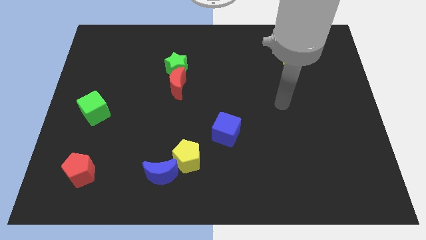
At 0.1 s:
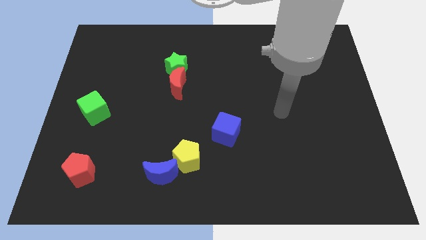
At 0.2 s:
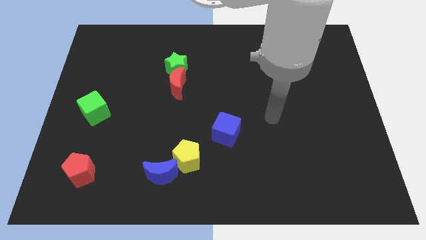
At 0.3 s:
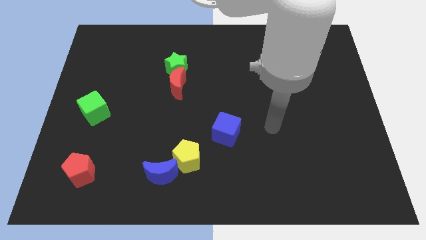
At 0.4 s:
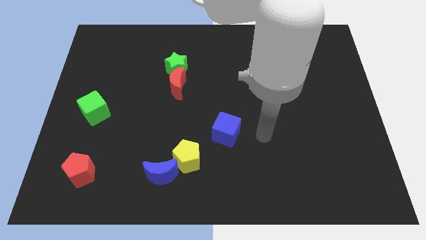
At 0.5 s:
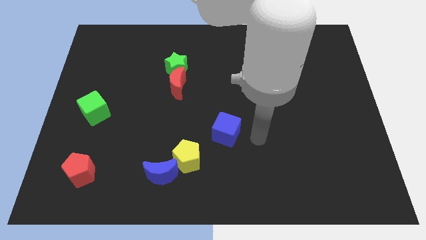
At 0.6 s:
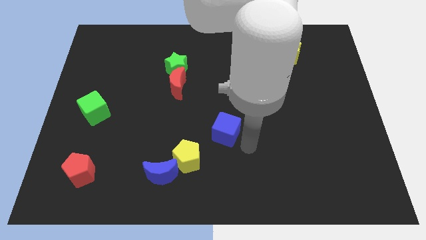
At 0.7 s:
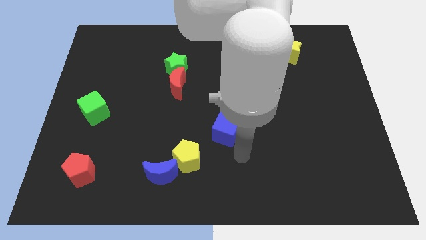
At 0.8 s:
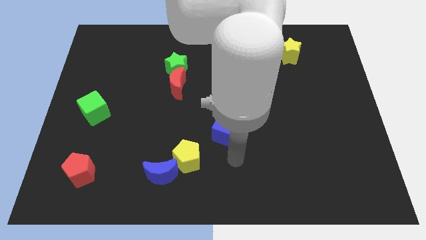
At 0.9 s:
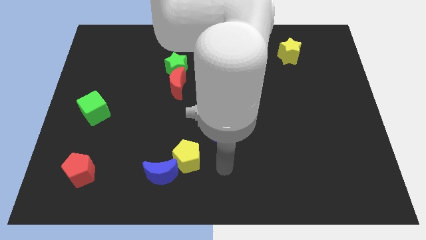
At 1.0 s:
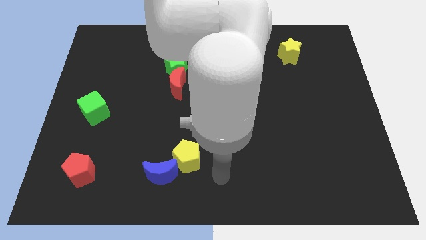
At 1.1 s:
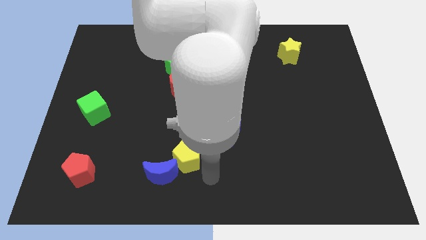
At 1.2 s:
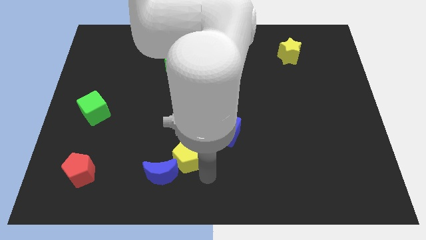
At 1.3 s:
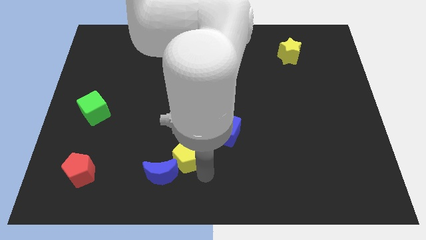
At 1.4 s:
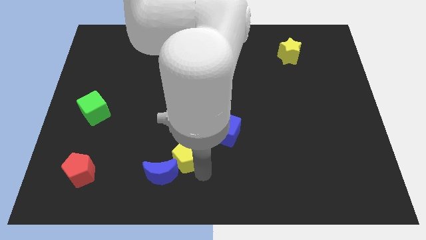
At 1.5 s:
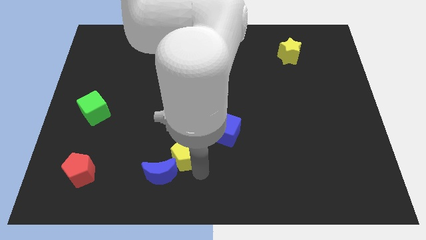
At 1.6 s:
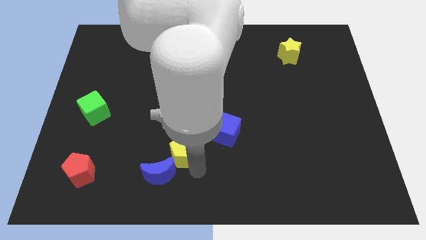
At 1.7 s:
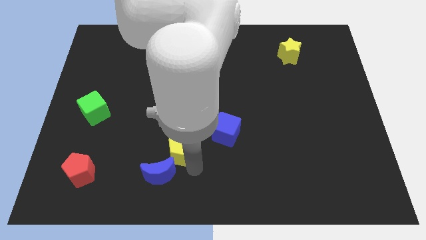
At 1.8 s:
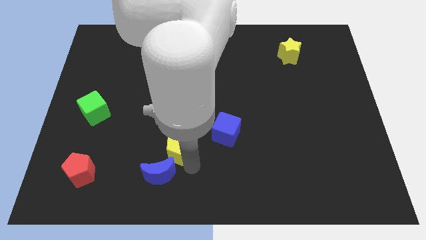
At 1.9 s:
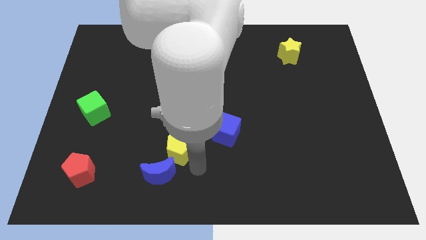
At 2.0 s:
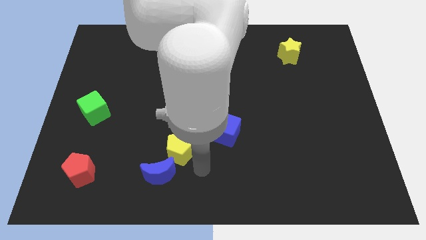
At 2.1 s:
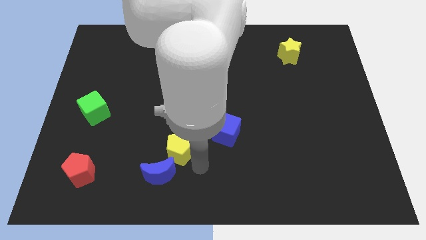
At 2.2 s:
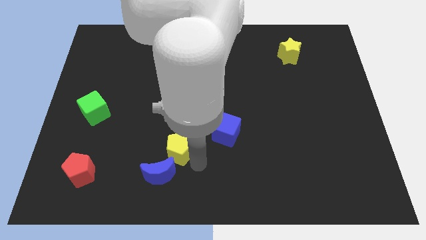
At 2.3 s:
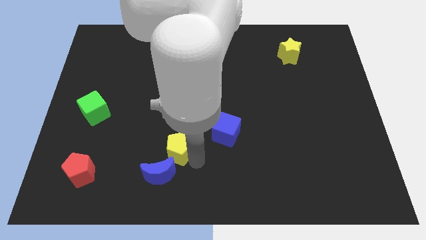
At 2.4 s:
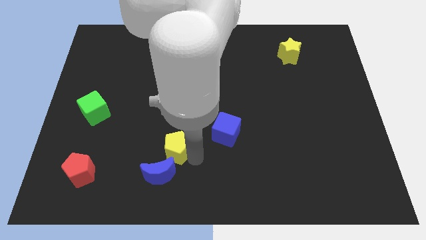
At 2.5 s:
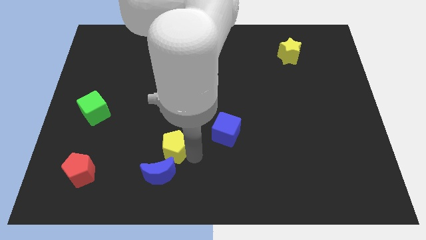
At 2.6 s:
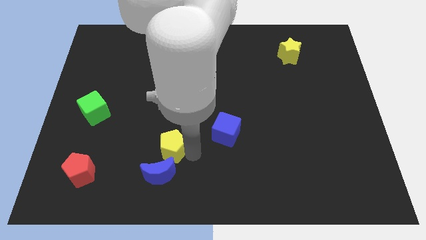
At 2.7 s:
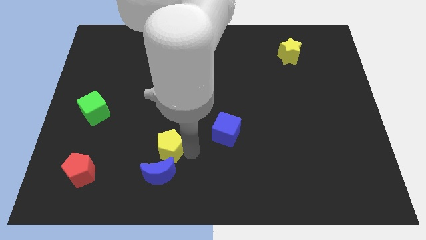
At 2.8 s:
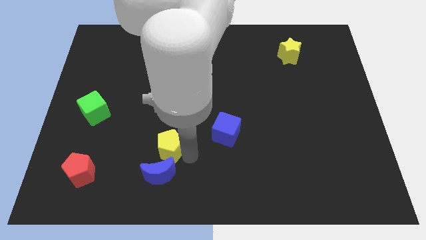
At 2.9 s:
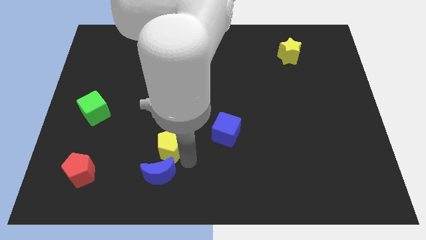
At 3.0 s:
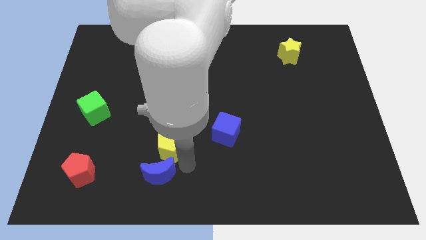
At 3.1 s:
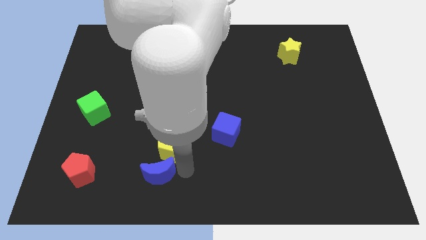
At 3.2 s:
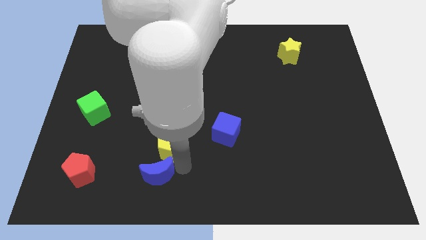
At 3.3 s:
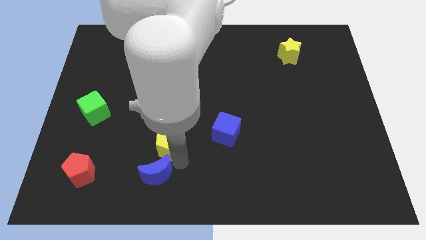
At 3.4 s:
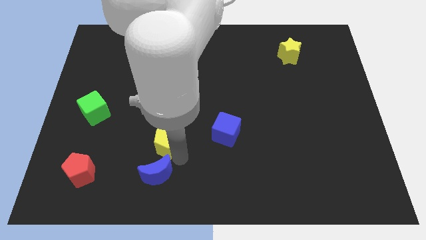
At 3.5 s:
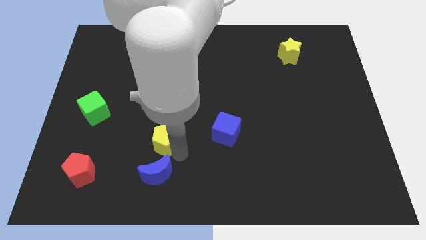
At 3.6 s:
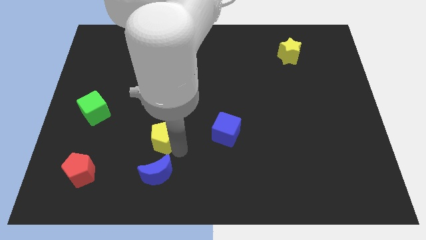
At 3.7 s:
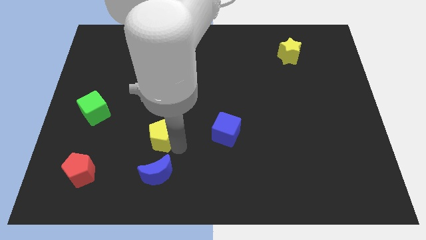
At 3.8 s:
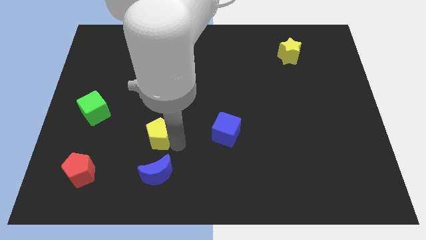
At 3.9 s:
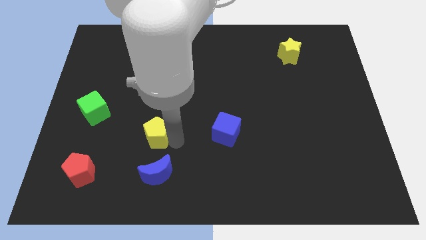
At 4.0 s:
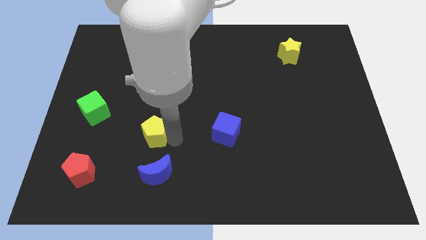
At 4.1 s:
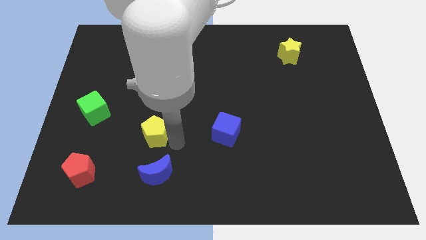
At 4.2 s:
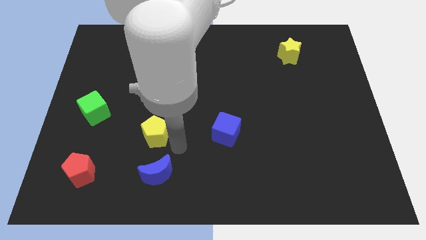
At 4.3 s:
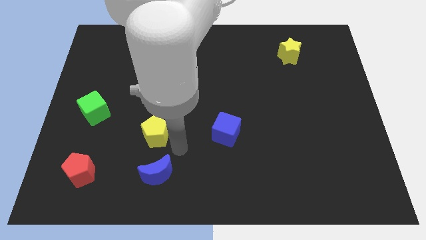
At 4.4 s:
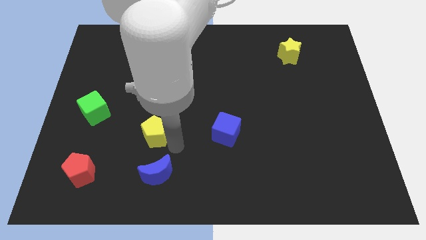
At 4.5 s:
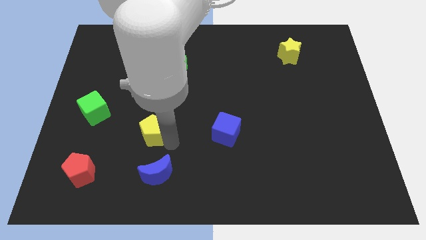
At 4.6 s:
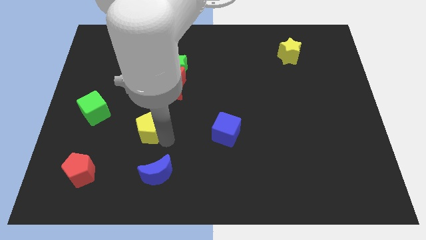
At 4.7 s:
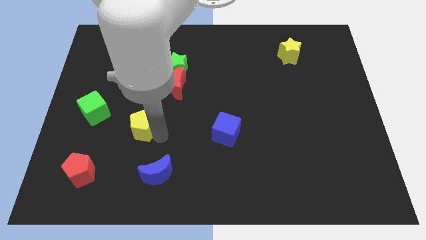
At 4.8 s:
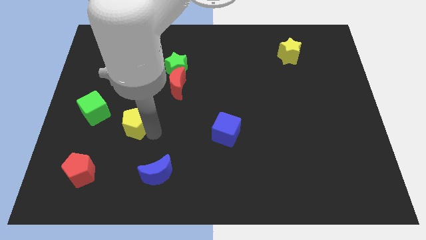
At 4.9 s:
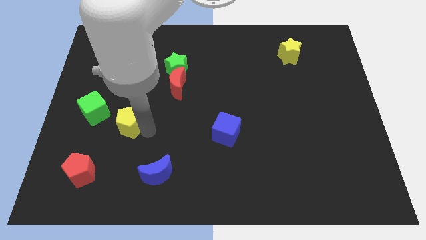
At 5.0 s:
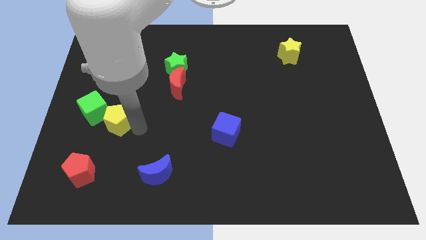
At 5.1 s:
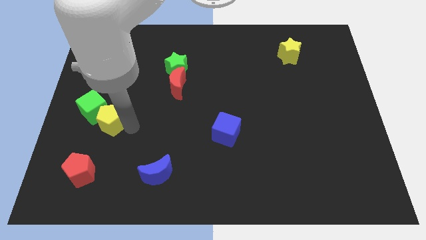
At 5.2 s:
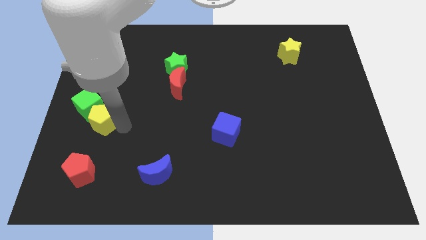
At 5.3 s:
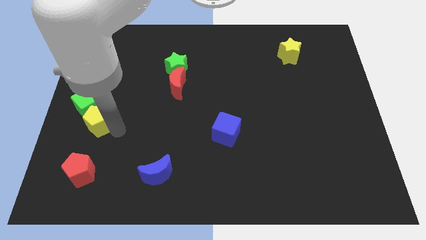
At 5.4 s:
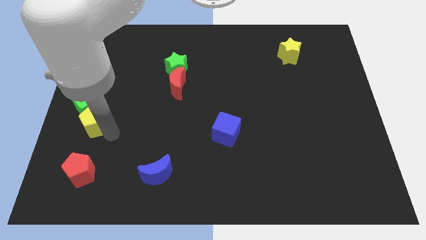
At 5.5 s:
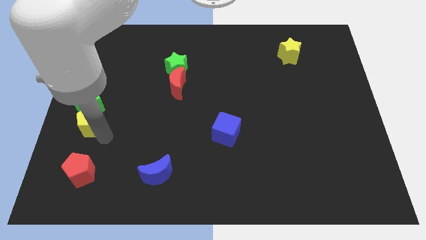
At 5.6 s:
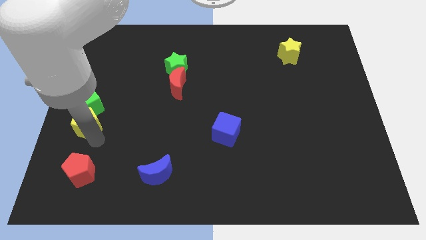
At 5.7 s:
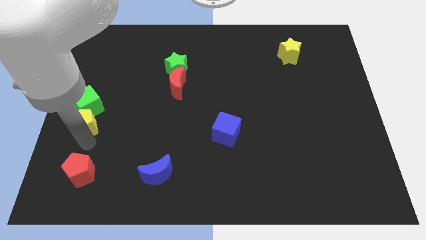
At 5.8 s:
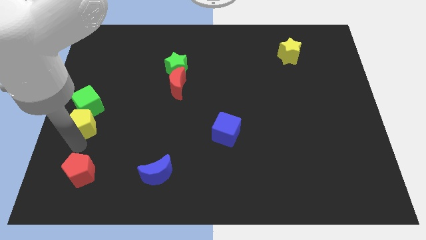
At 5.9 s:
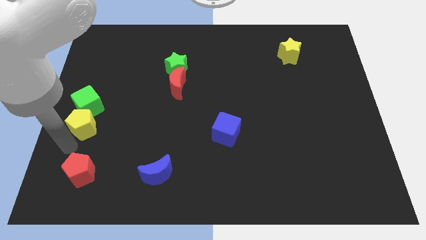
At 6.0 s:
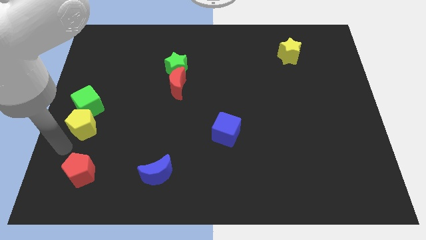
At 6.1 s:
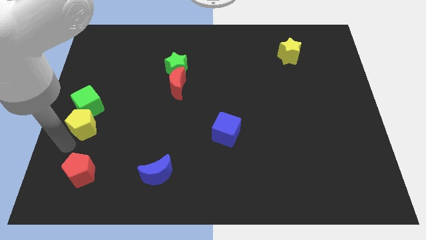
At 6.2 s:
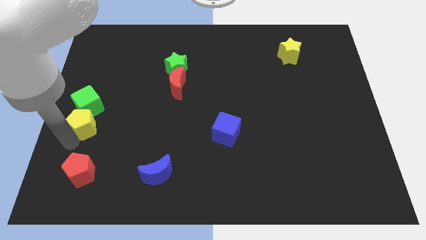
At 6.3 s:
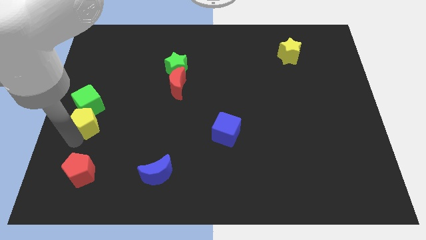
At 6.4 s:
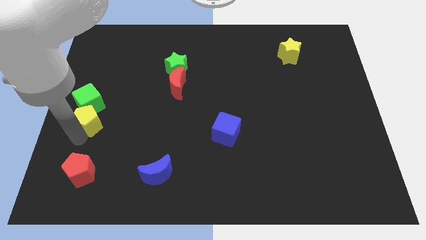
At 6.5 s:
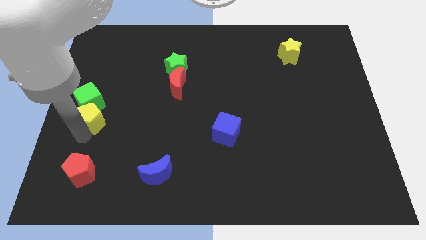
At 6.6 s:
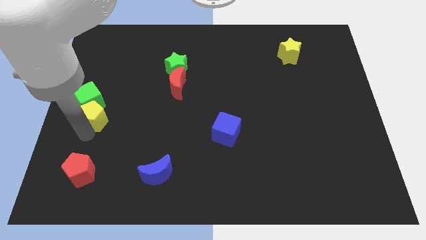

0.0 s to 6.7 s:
move the yellow pentagon up and then to the left

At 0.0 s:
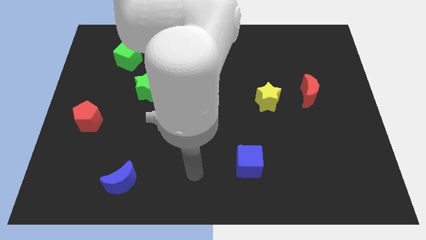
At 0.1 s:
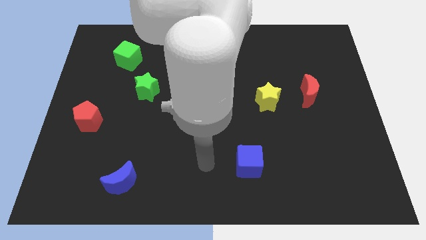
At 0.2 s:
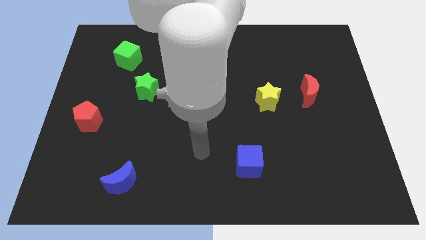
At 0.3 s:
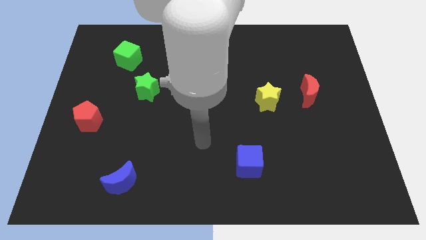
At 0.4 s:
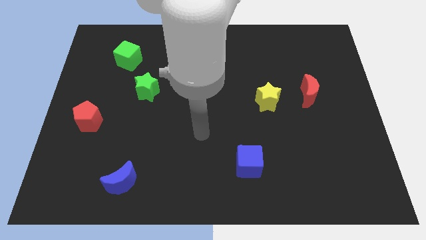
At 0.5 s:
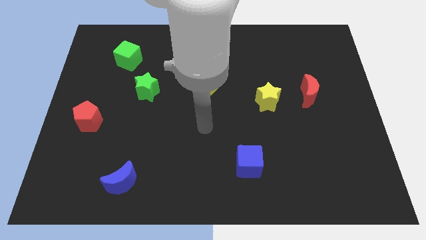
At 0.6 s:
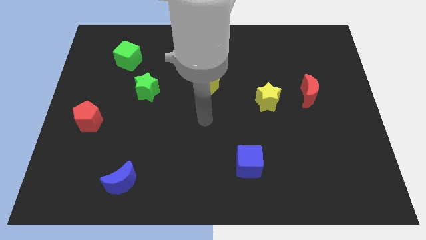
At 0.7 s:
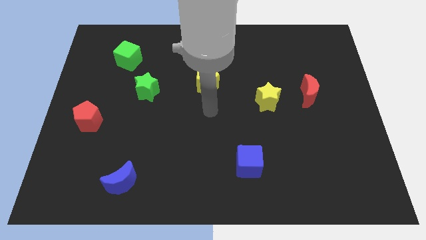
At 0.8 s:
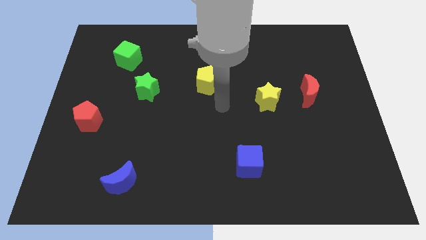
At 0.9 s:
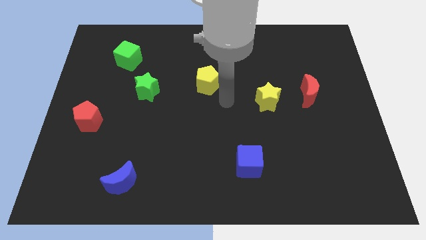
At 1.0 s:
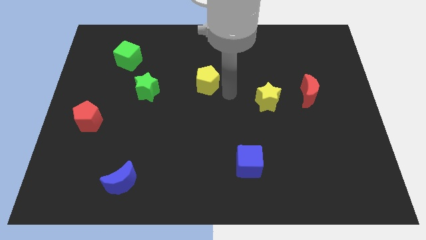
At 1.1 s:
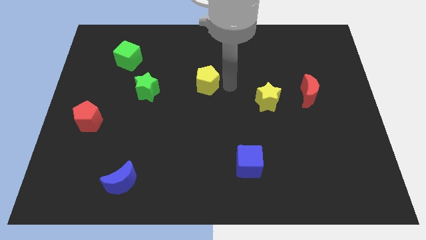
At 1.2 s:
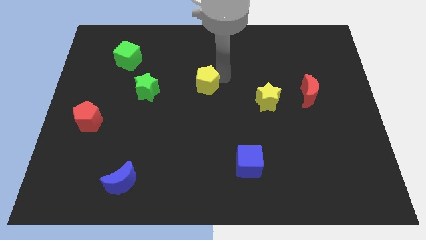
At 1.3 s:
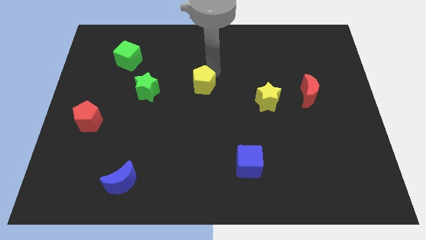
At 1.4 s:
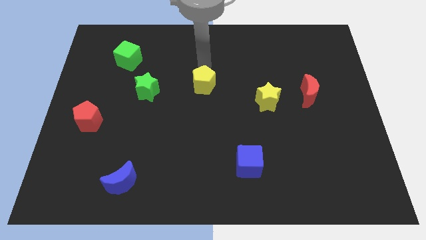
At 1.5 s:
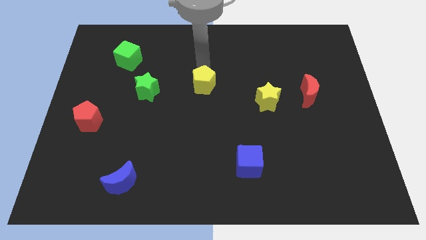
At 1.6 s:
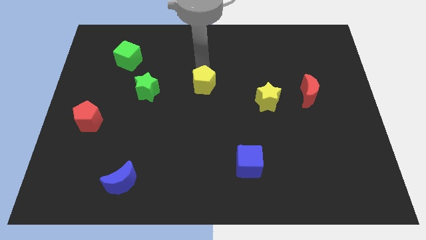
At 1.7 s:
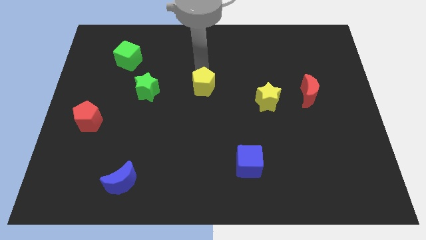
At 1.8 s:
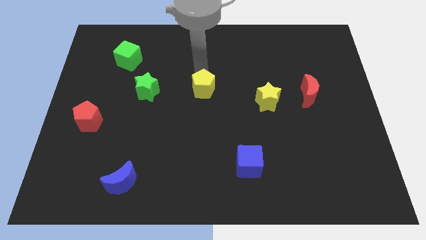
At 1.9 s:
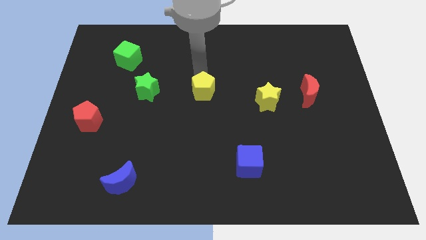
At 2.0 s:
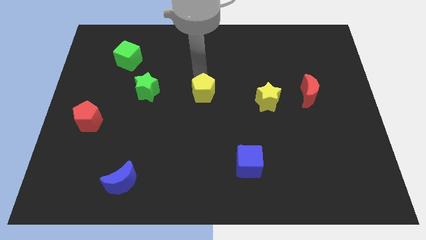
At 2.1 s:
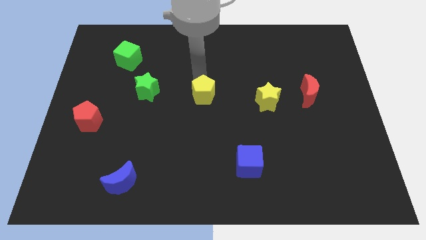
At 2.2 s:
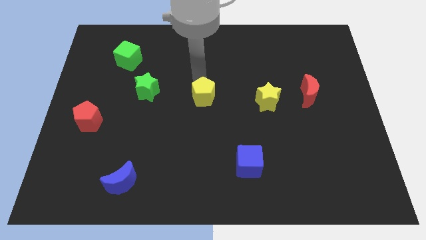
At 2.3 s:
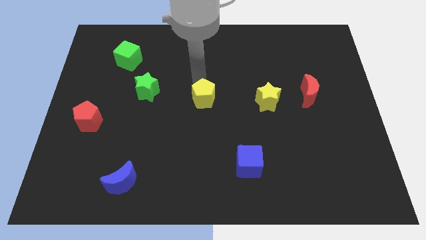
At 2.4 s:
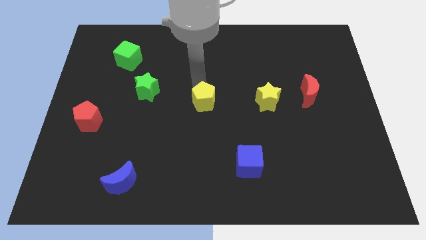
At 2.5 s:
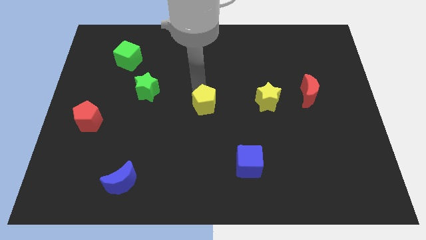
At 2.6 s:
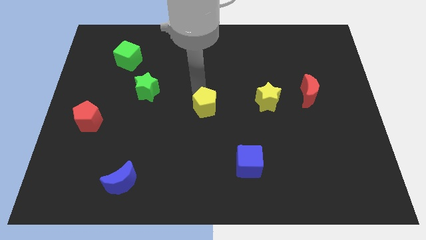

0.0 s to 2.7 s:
push the yellow pentagon a little bit downwards
